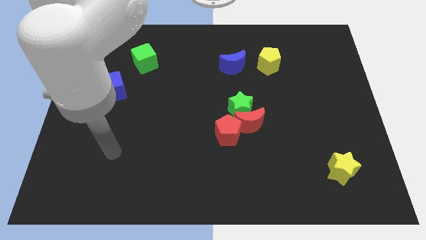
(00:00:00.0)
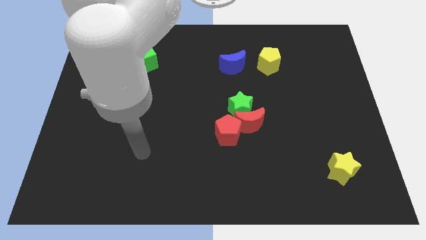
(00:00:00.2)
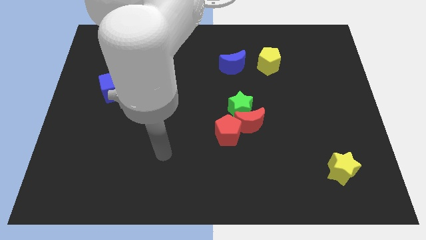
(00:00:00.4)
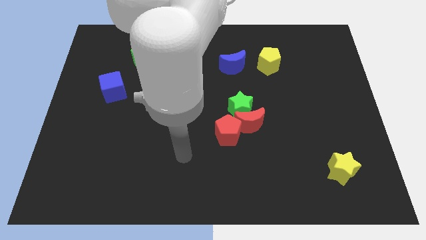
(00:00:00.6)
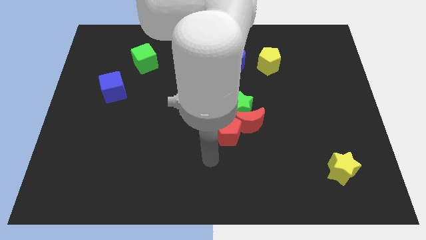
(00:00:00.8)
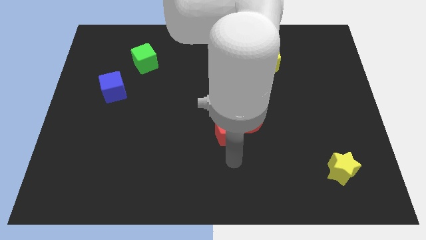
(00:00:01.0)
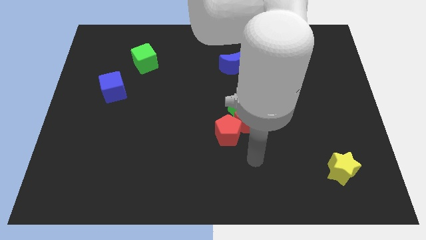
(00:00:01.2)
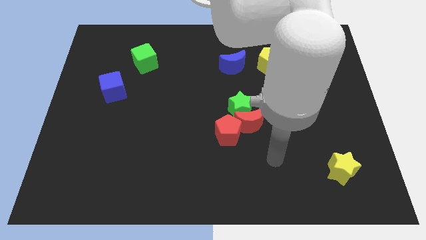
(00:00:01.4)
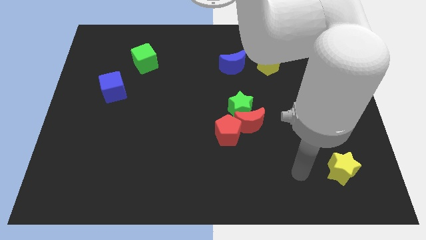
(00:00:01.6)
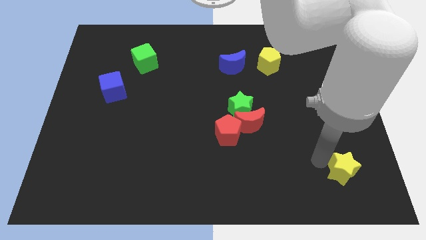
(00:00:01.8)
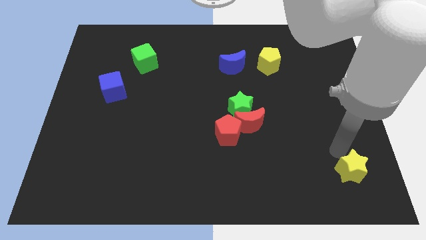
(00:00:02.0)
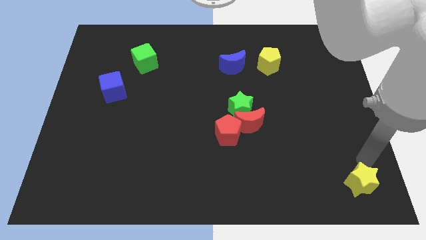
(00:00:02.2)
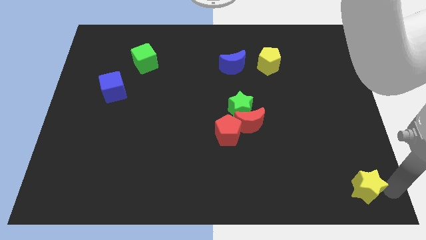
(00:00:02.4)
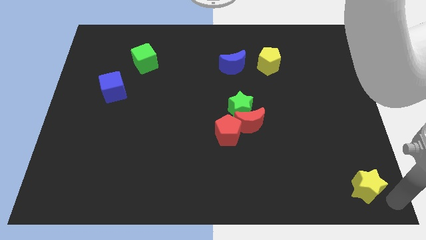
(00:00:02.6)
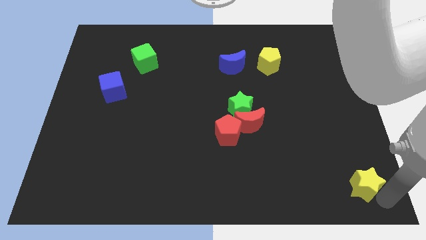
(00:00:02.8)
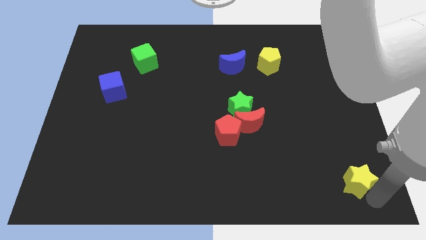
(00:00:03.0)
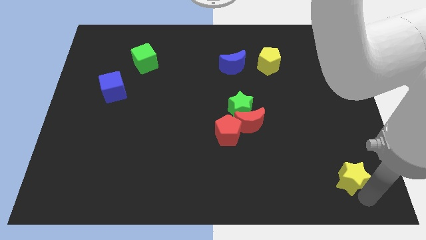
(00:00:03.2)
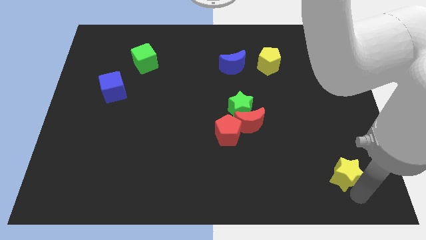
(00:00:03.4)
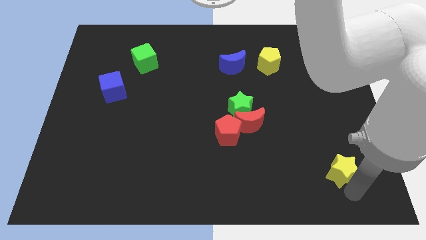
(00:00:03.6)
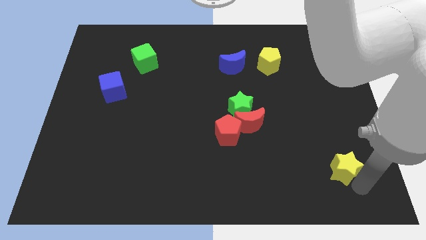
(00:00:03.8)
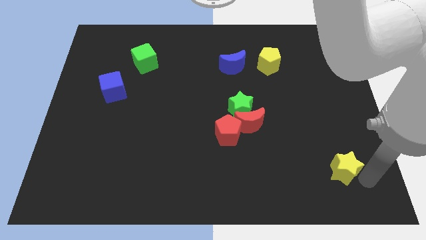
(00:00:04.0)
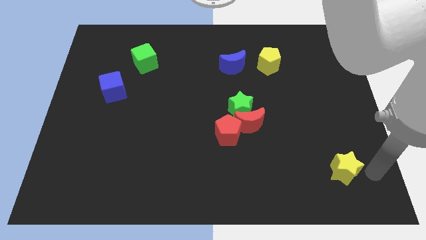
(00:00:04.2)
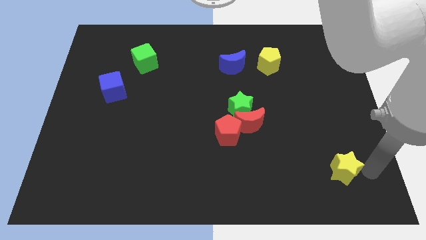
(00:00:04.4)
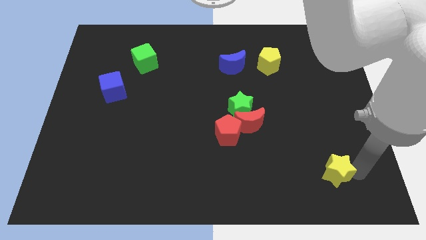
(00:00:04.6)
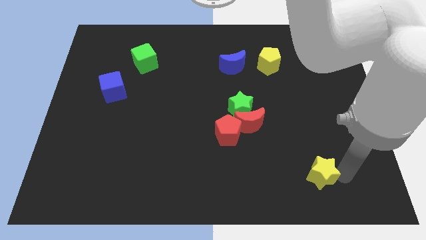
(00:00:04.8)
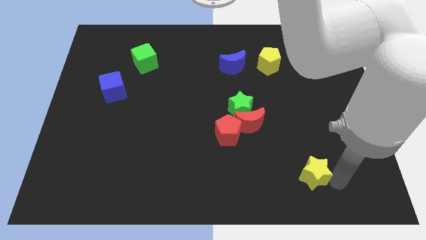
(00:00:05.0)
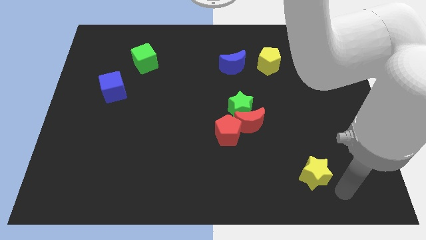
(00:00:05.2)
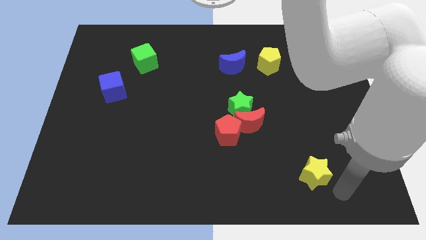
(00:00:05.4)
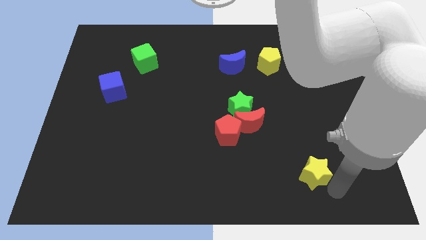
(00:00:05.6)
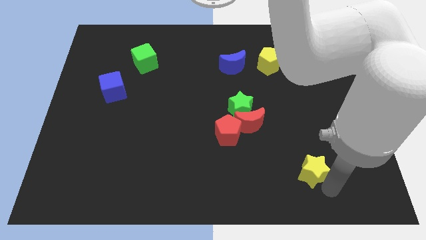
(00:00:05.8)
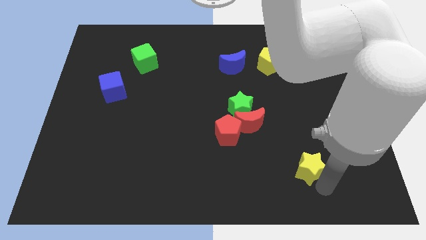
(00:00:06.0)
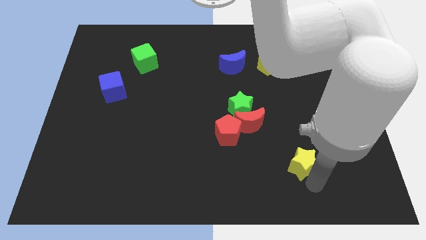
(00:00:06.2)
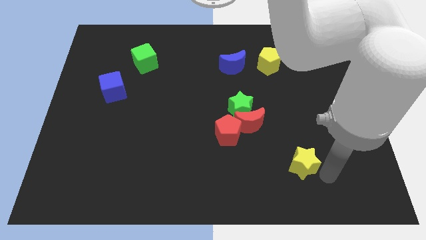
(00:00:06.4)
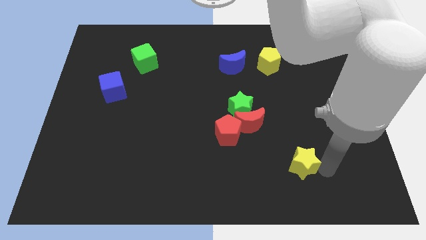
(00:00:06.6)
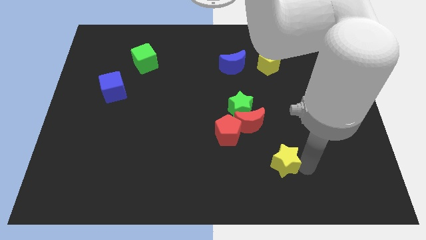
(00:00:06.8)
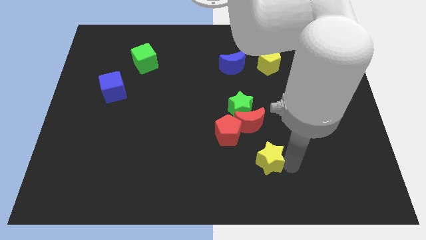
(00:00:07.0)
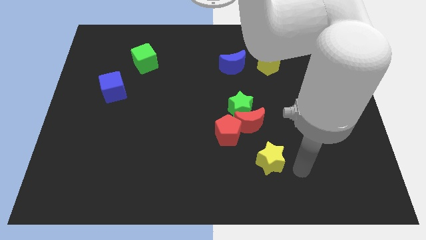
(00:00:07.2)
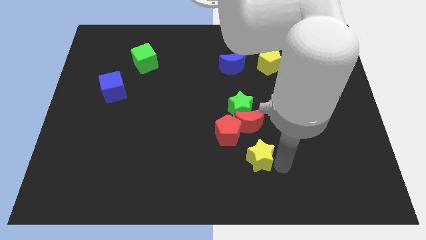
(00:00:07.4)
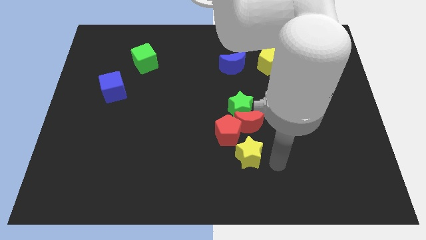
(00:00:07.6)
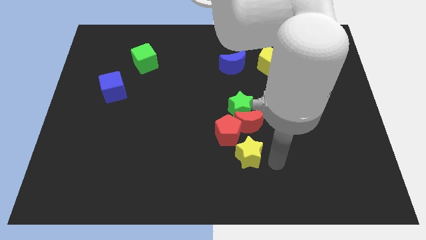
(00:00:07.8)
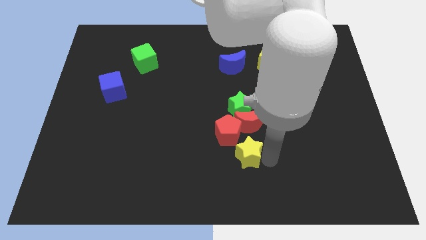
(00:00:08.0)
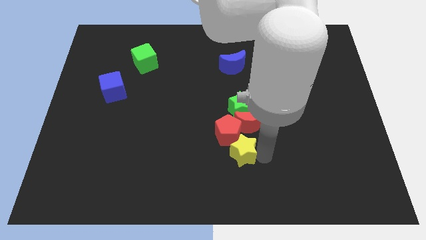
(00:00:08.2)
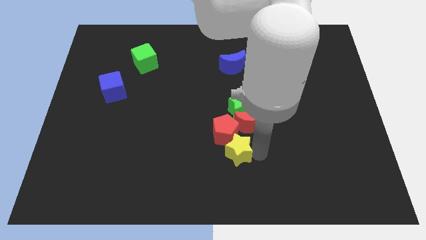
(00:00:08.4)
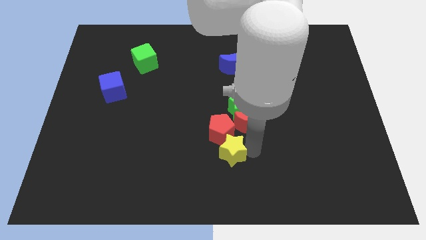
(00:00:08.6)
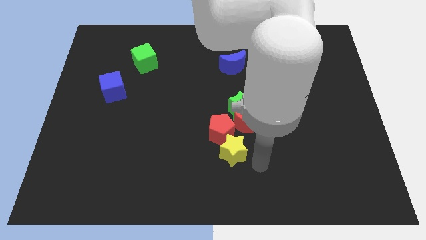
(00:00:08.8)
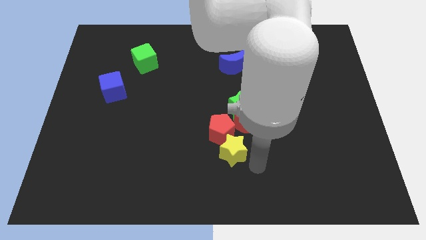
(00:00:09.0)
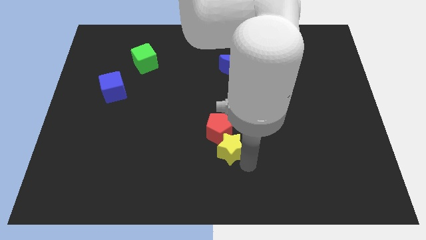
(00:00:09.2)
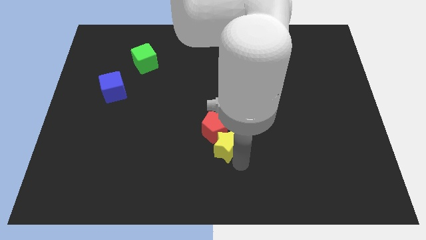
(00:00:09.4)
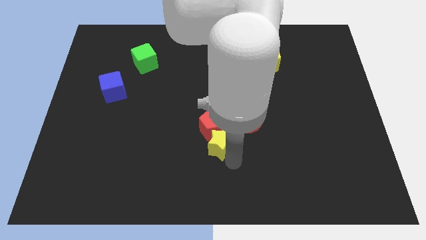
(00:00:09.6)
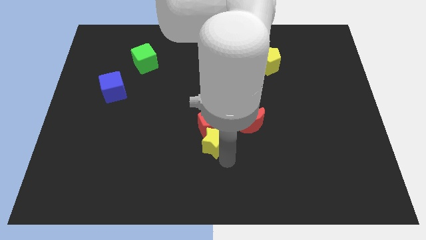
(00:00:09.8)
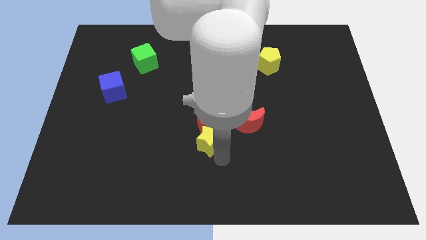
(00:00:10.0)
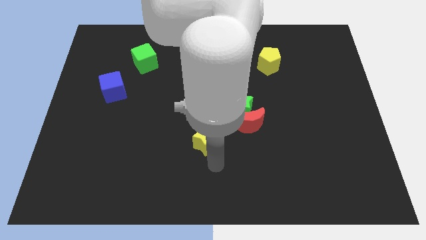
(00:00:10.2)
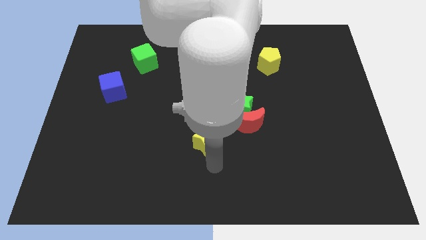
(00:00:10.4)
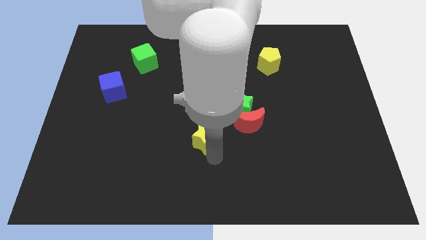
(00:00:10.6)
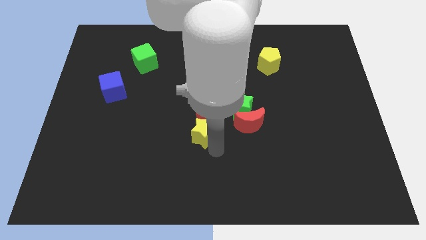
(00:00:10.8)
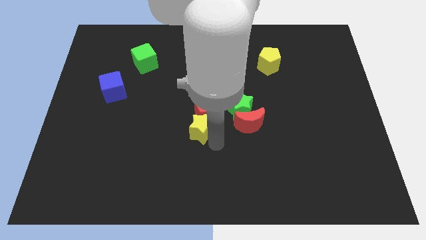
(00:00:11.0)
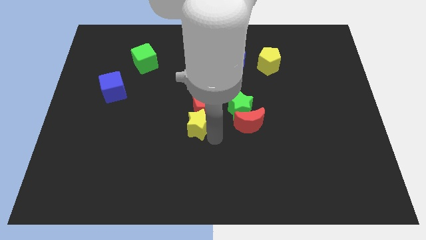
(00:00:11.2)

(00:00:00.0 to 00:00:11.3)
move the yellow star just left of the green star

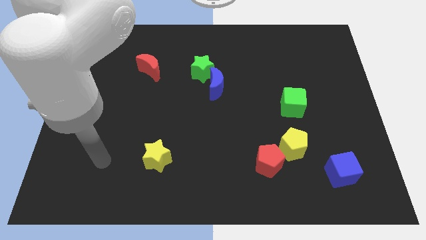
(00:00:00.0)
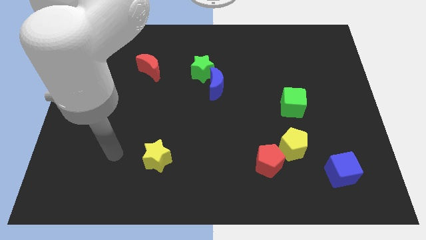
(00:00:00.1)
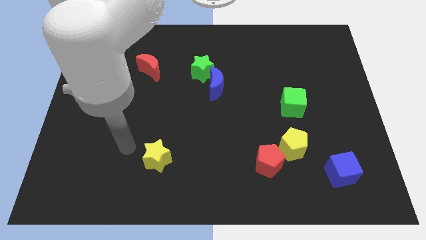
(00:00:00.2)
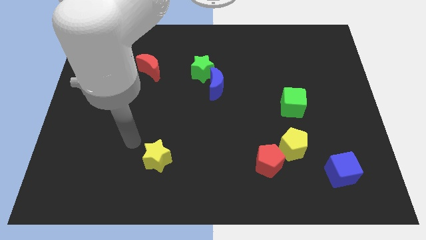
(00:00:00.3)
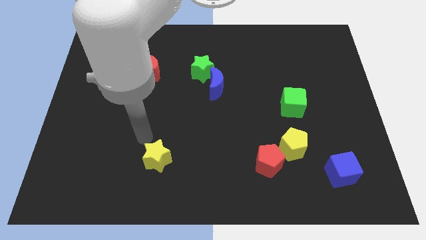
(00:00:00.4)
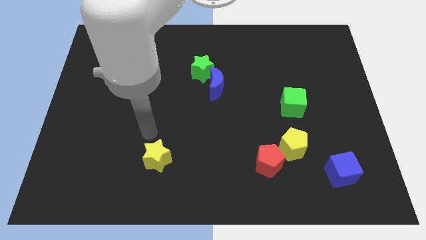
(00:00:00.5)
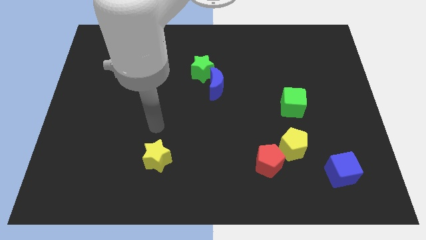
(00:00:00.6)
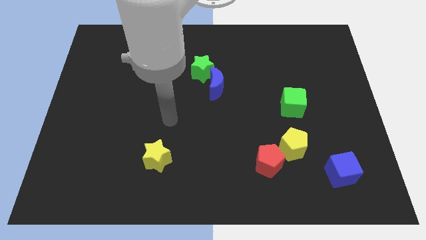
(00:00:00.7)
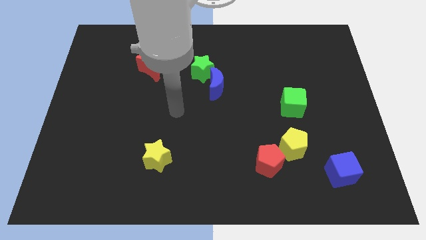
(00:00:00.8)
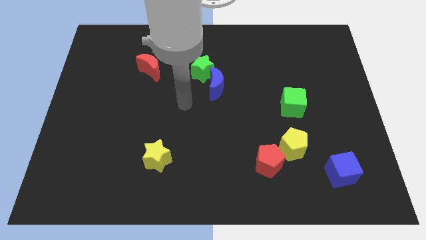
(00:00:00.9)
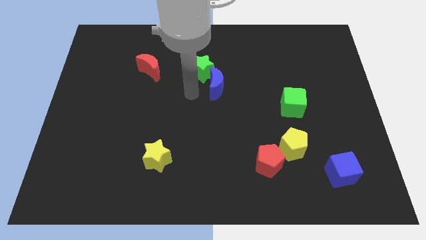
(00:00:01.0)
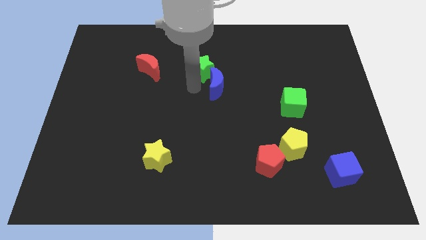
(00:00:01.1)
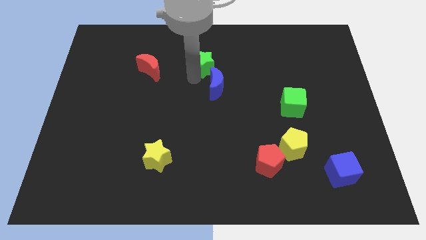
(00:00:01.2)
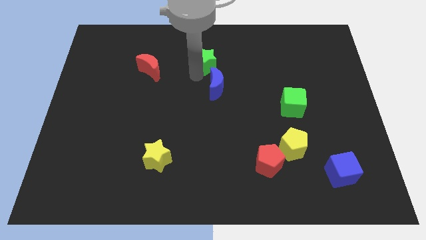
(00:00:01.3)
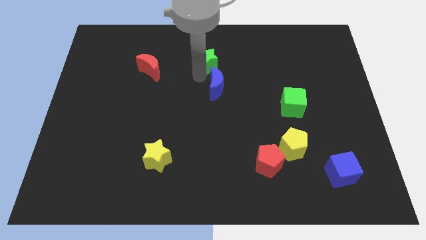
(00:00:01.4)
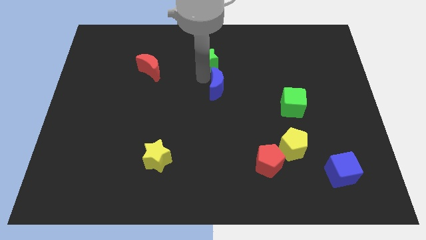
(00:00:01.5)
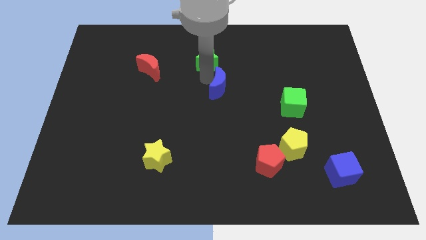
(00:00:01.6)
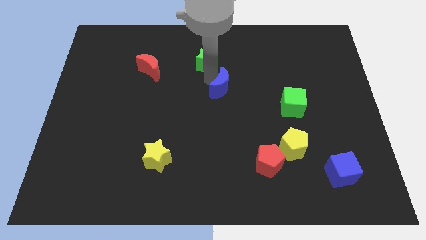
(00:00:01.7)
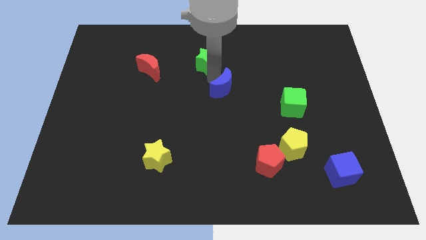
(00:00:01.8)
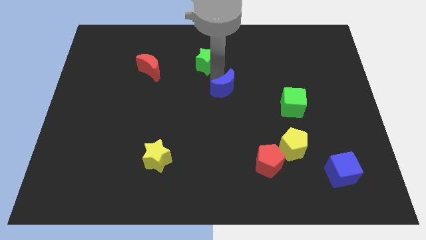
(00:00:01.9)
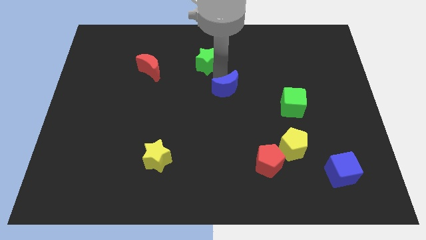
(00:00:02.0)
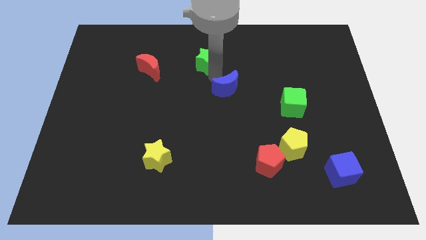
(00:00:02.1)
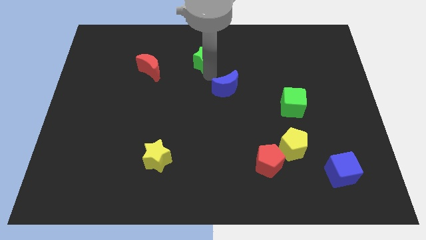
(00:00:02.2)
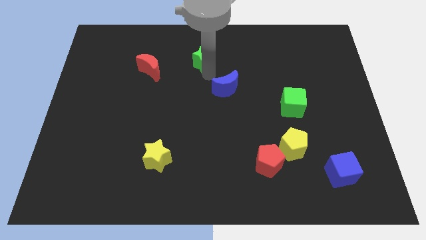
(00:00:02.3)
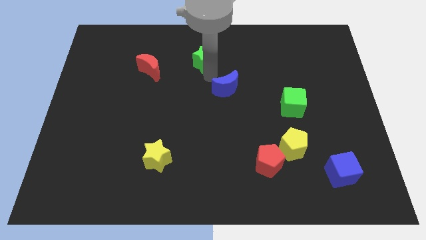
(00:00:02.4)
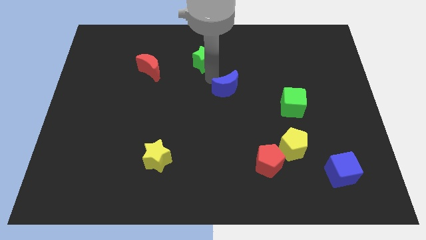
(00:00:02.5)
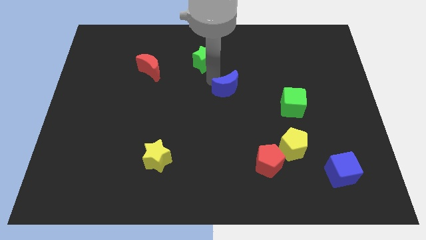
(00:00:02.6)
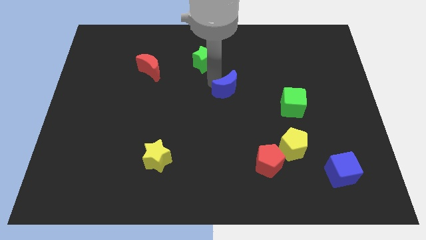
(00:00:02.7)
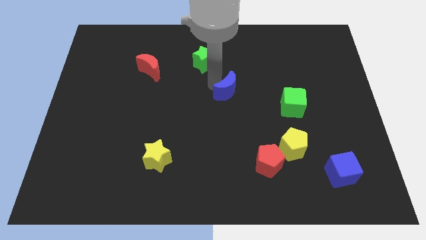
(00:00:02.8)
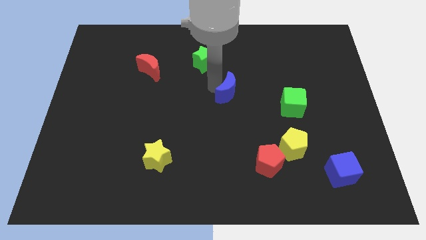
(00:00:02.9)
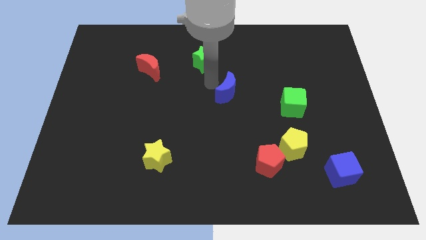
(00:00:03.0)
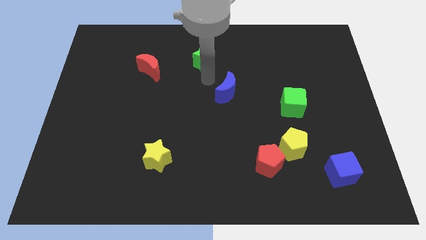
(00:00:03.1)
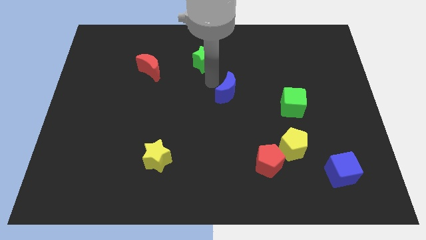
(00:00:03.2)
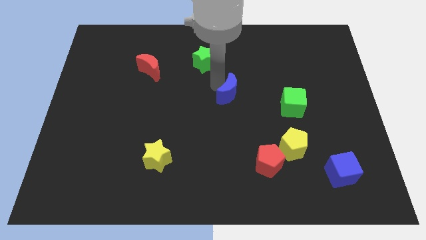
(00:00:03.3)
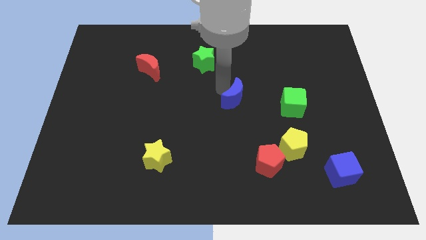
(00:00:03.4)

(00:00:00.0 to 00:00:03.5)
move the blue moon left of the green cube
